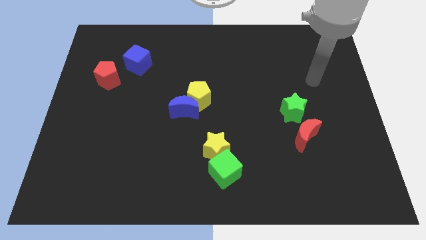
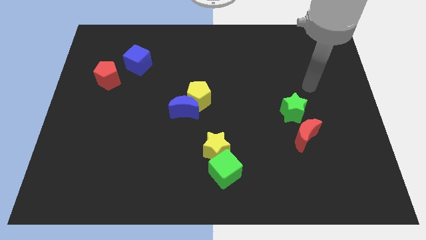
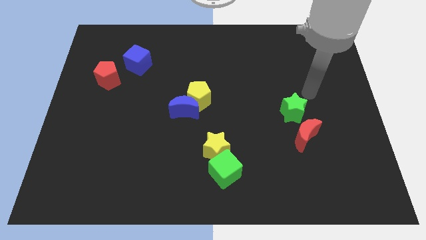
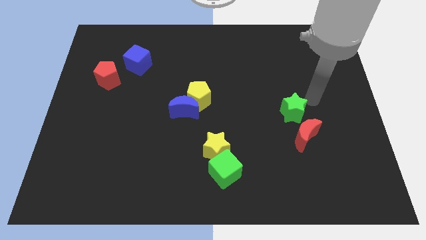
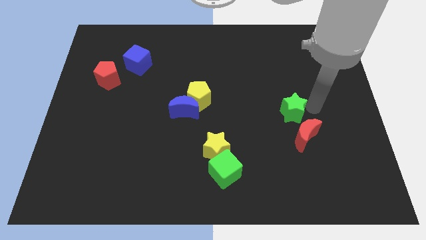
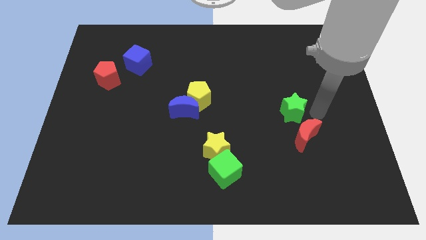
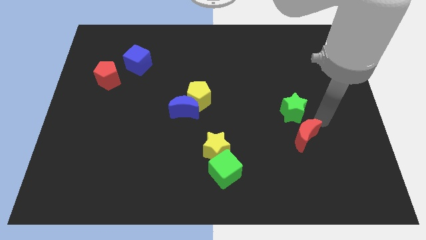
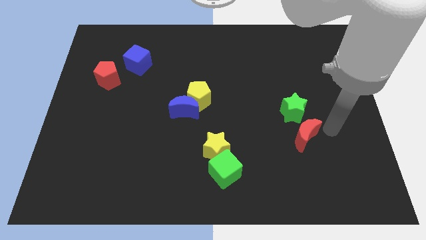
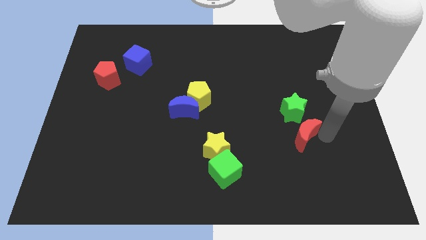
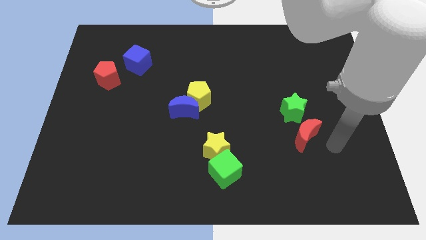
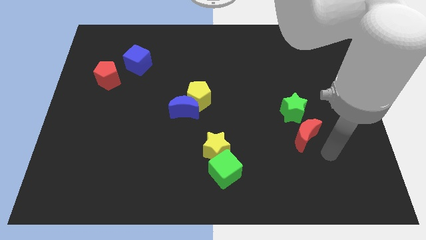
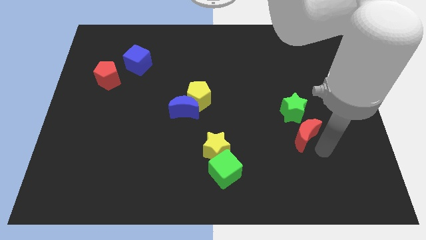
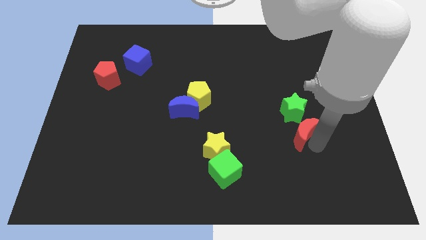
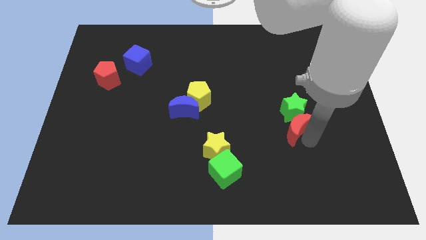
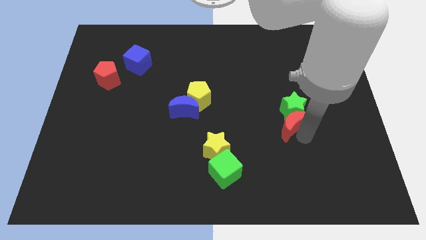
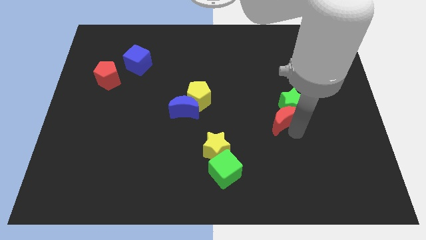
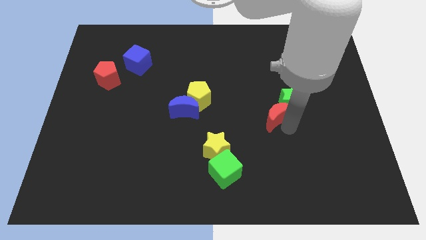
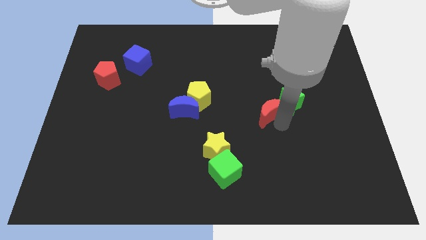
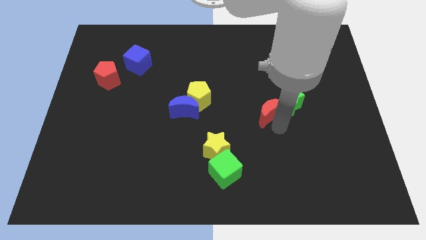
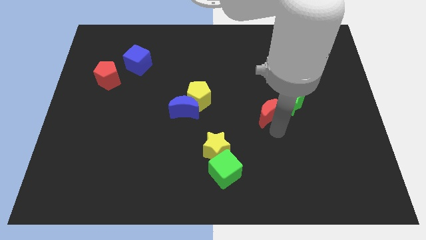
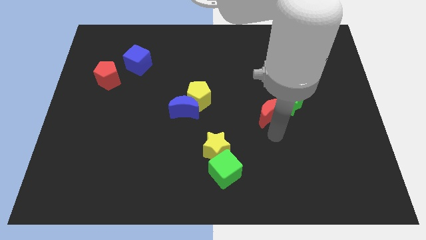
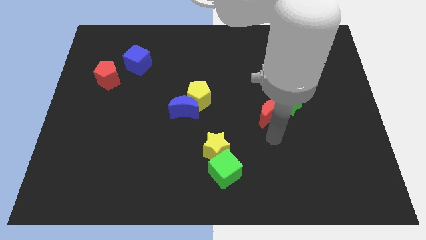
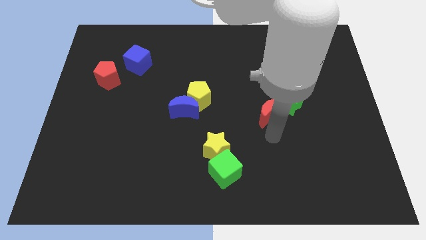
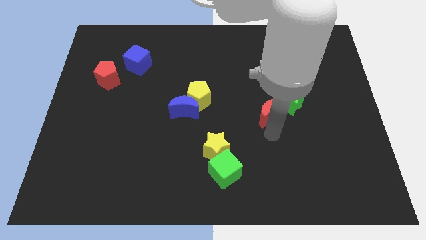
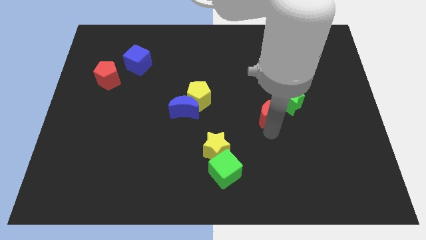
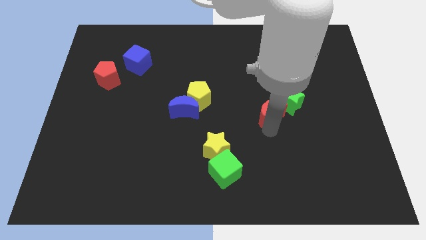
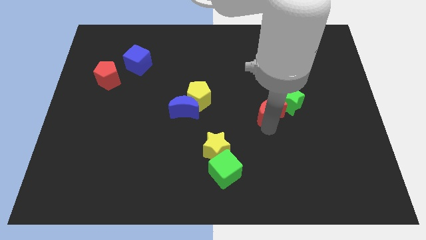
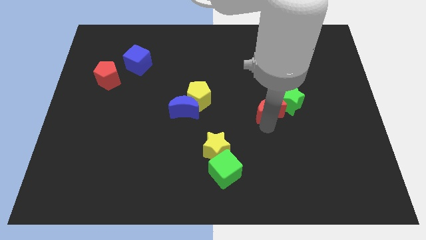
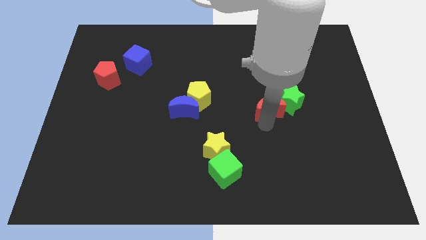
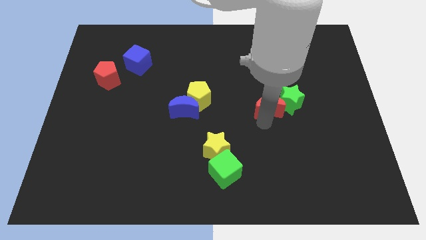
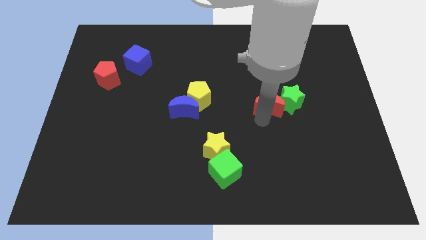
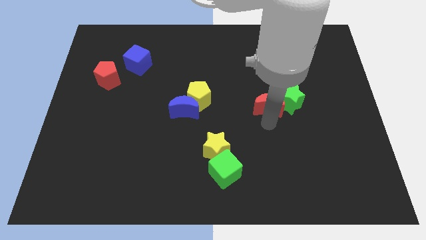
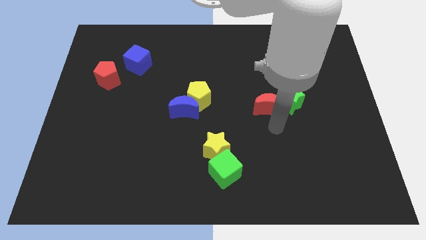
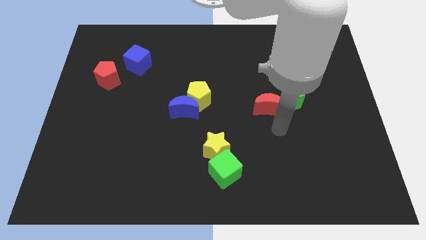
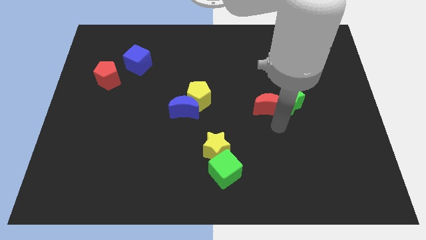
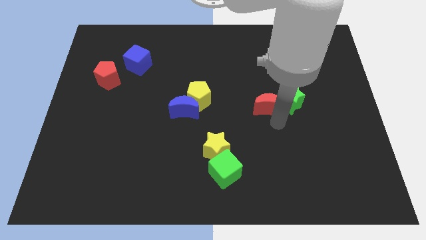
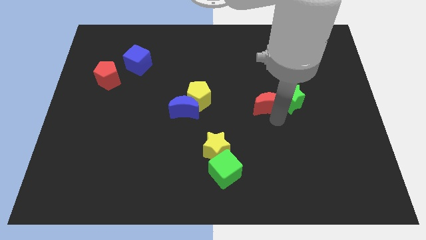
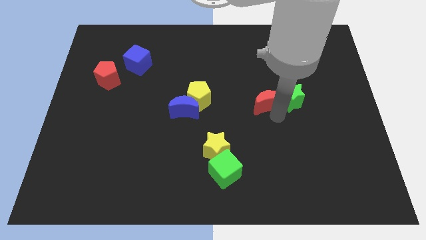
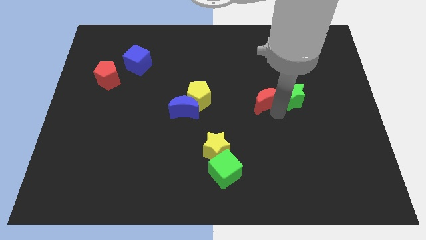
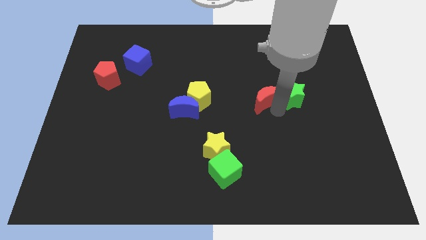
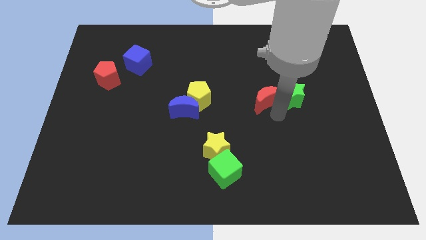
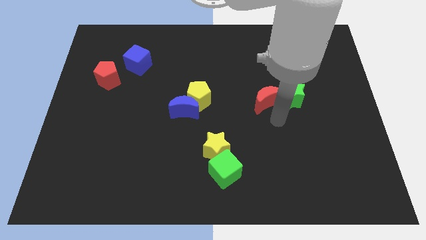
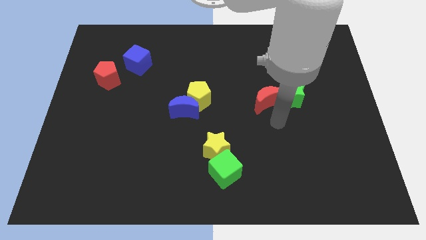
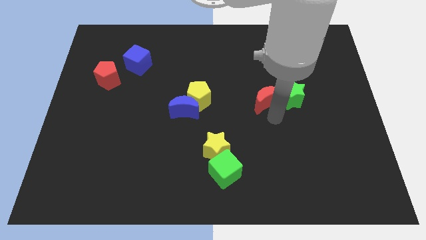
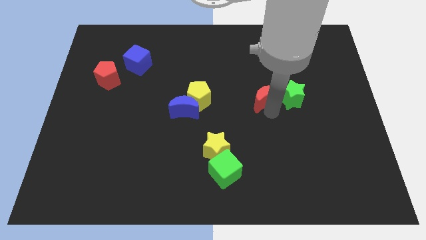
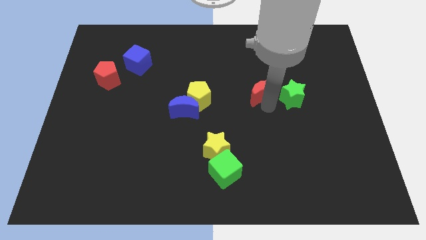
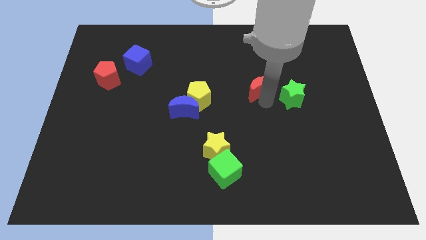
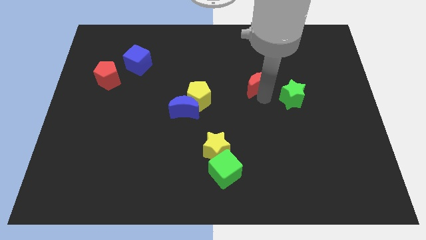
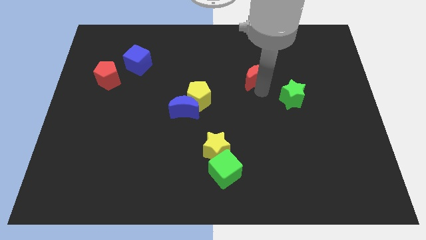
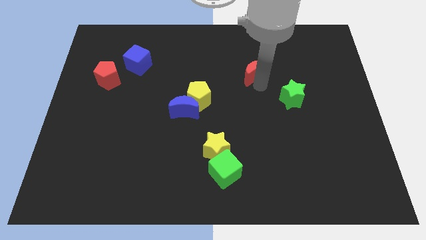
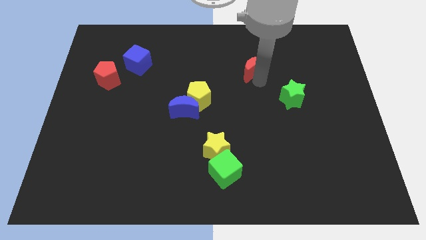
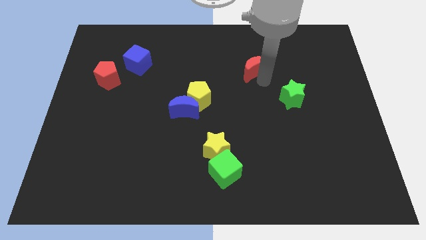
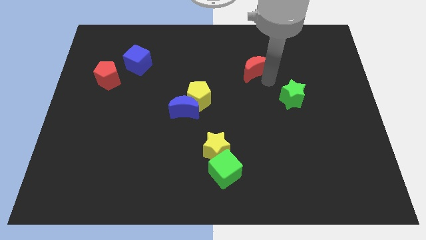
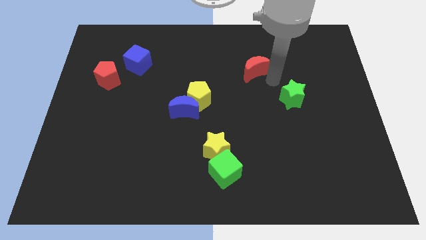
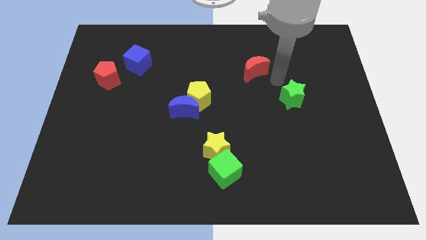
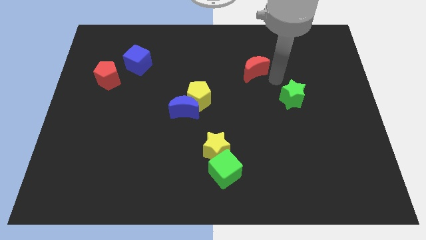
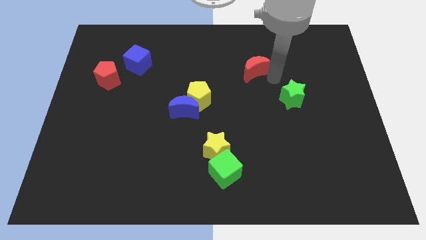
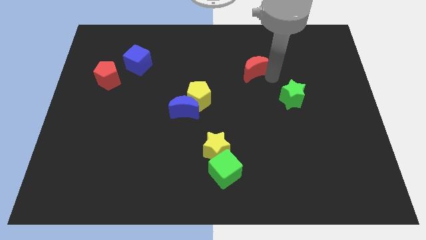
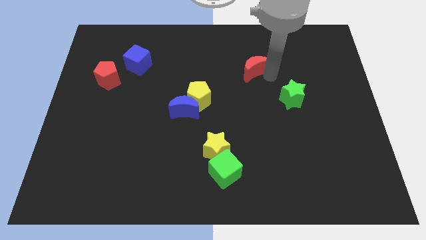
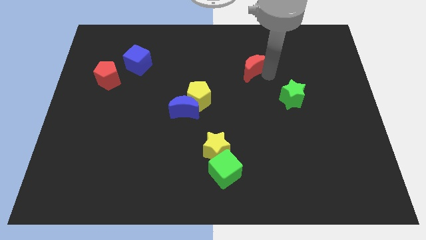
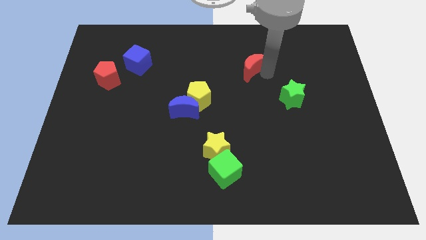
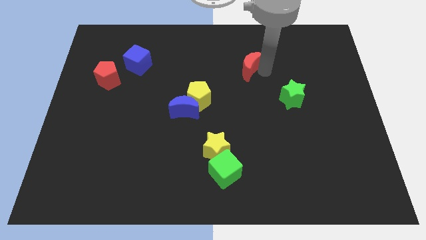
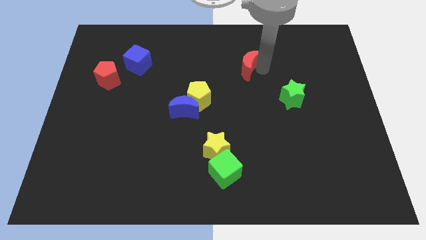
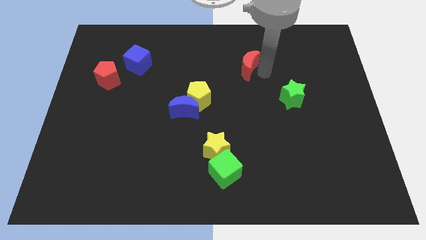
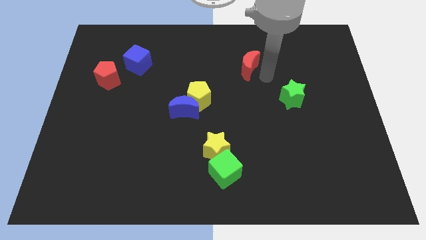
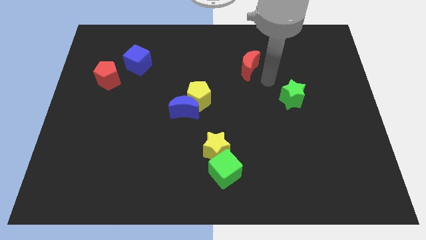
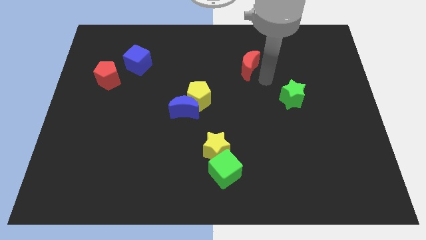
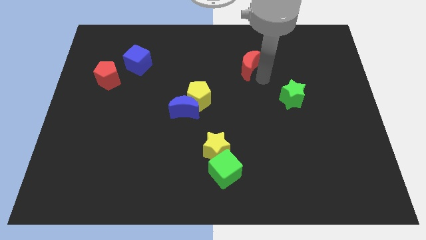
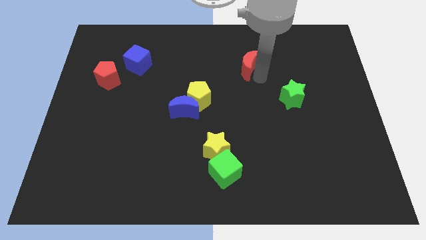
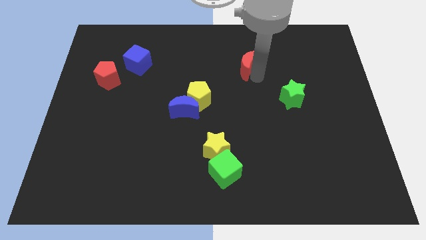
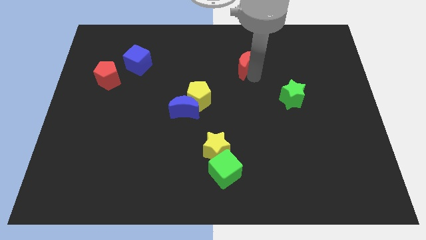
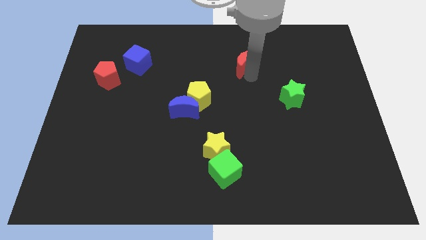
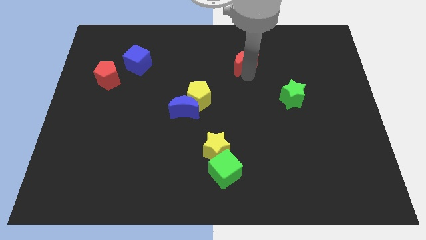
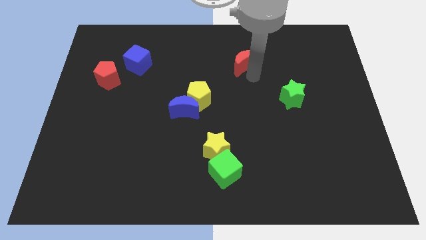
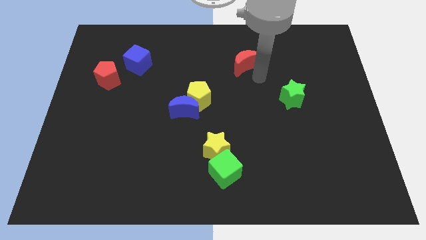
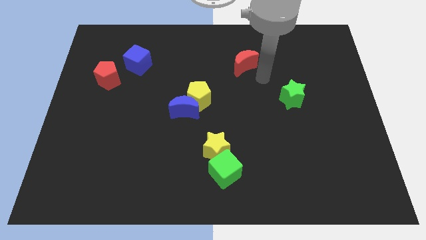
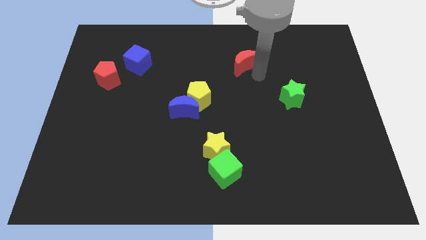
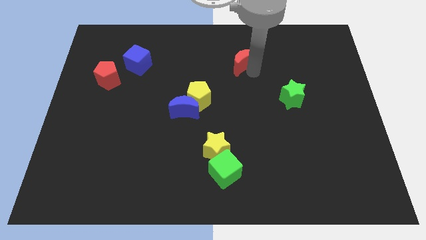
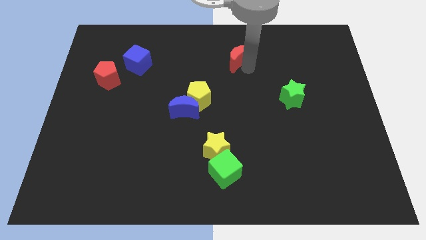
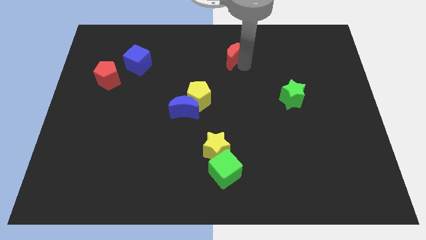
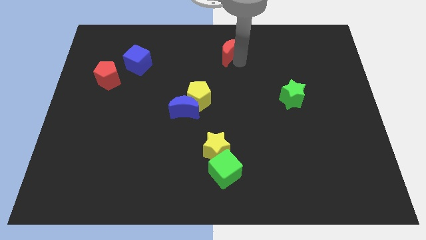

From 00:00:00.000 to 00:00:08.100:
move the red moon to the towards your base
